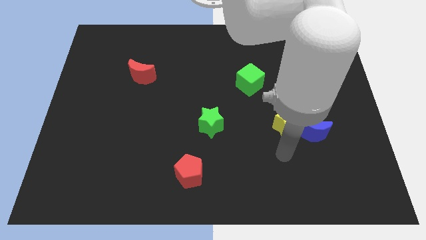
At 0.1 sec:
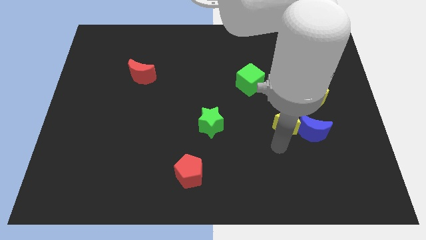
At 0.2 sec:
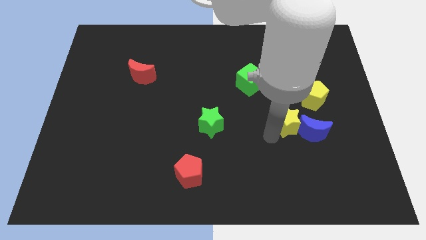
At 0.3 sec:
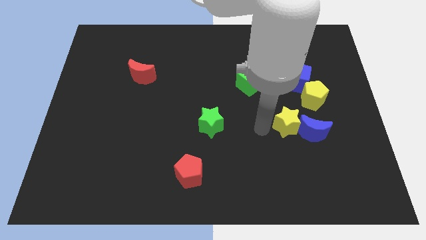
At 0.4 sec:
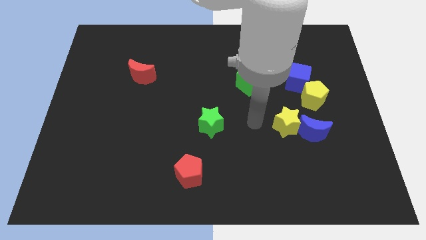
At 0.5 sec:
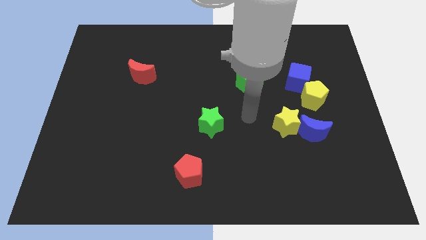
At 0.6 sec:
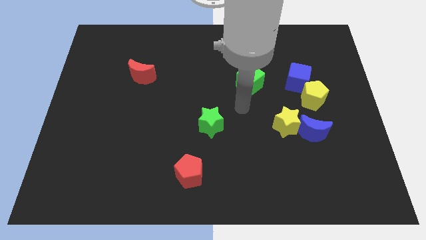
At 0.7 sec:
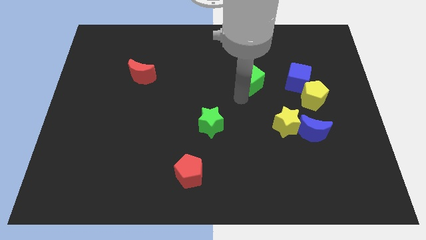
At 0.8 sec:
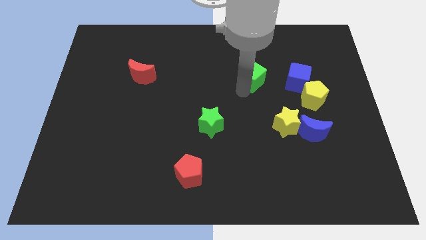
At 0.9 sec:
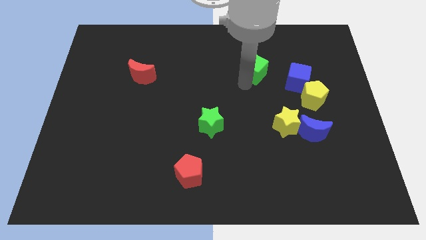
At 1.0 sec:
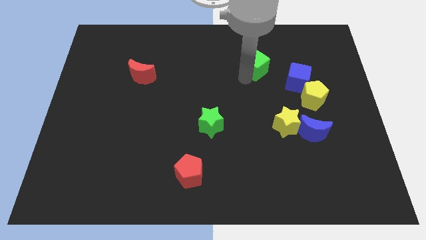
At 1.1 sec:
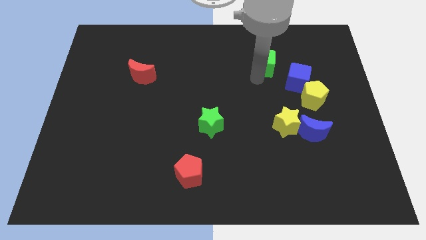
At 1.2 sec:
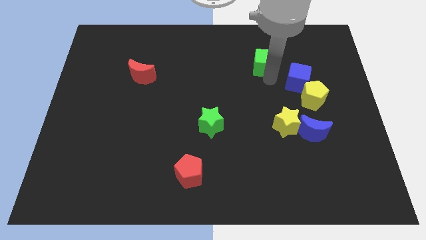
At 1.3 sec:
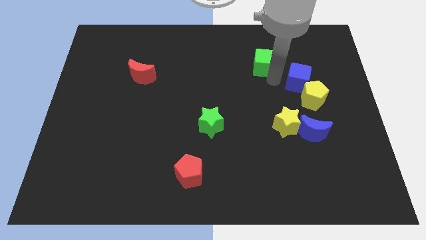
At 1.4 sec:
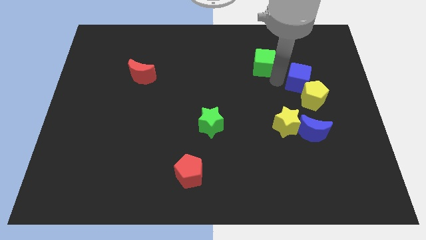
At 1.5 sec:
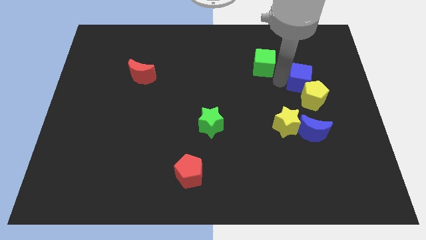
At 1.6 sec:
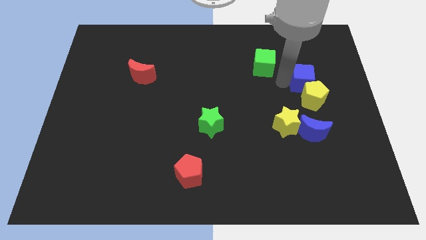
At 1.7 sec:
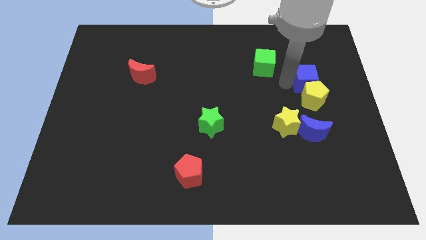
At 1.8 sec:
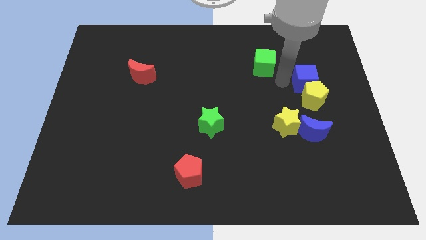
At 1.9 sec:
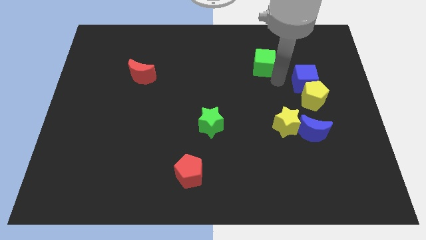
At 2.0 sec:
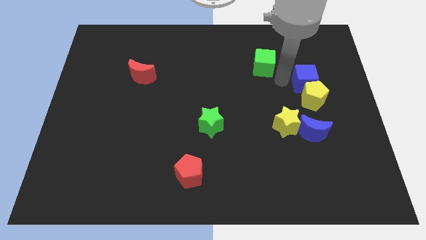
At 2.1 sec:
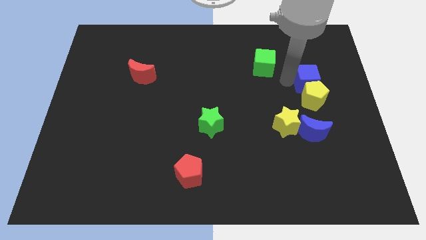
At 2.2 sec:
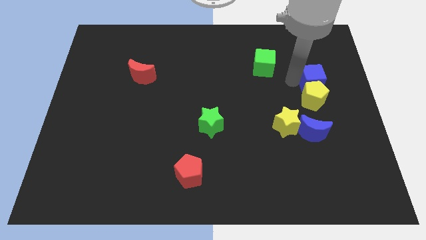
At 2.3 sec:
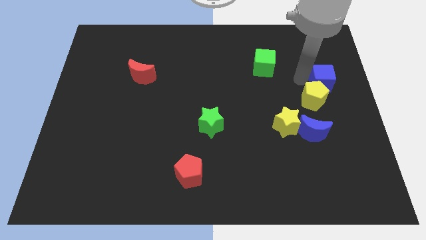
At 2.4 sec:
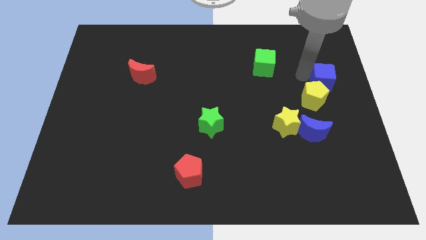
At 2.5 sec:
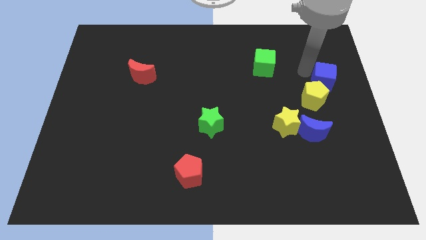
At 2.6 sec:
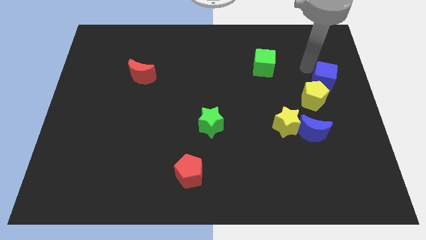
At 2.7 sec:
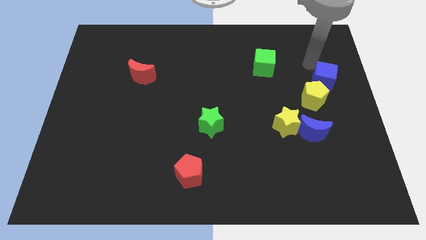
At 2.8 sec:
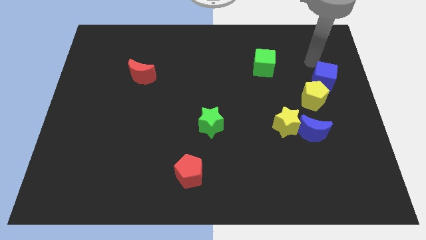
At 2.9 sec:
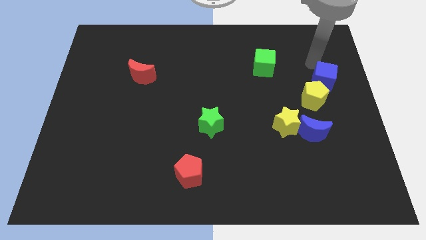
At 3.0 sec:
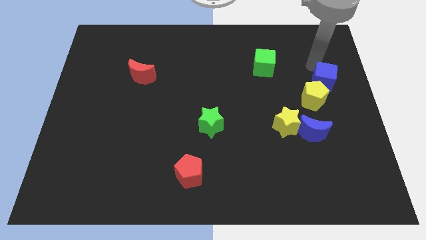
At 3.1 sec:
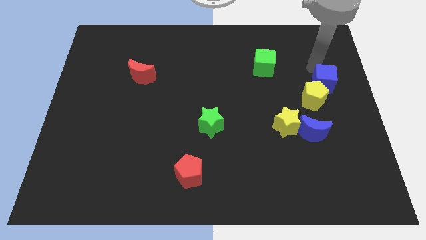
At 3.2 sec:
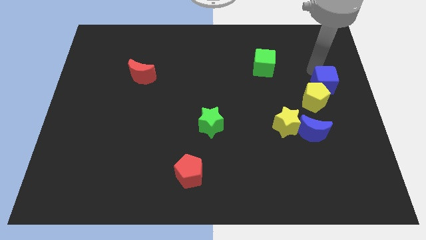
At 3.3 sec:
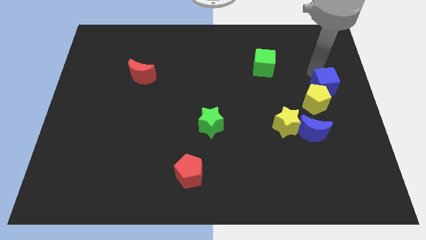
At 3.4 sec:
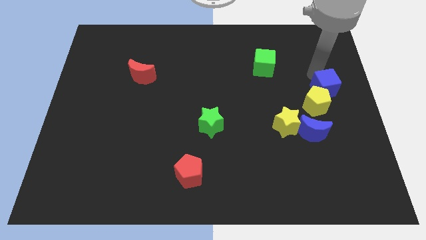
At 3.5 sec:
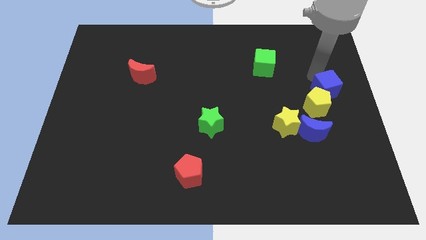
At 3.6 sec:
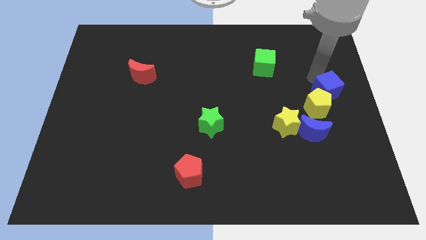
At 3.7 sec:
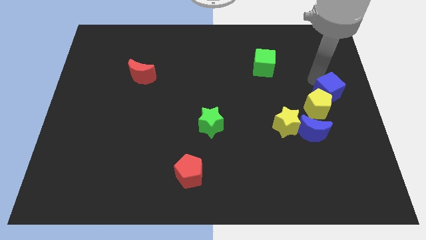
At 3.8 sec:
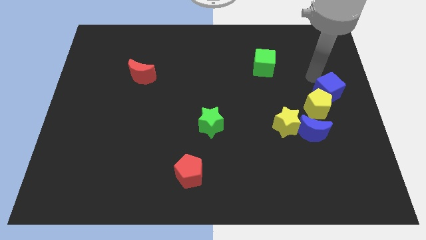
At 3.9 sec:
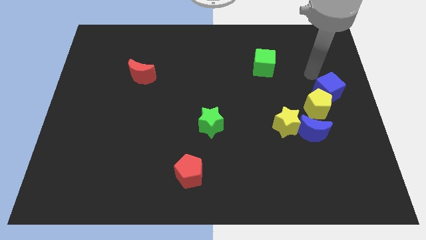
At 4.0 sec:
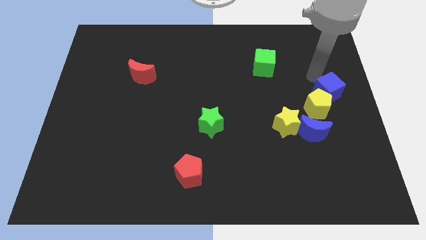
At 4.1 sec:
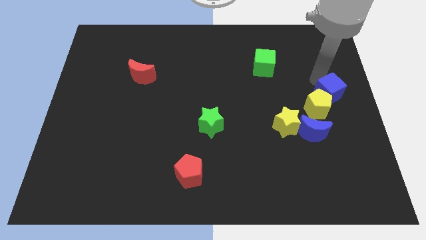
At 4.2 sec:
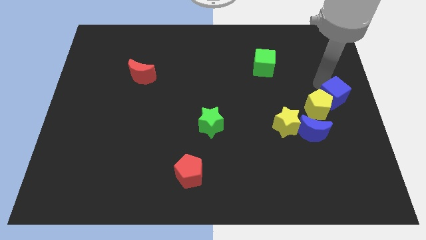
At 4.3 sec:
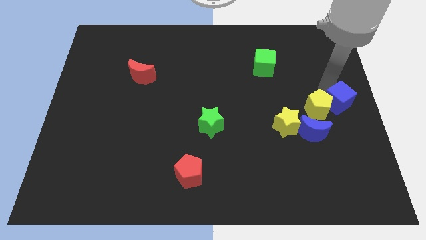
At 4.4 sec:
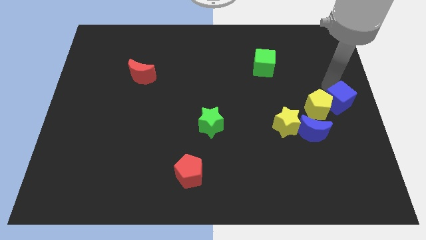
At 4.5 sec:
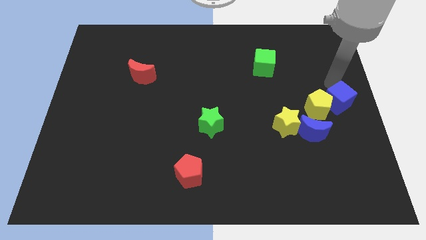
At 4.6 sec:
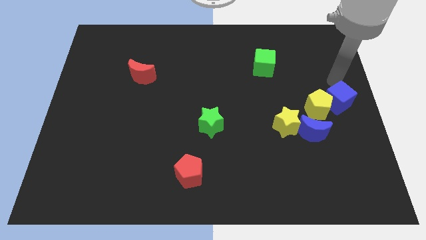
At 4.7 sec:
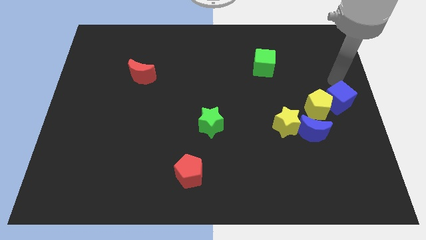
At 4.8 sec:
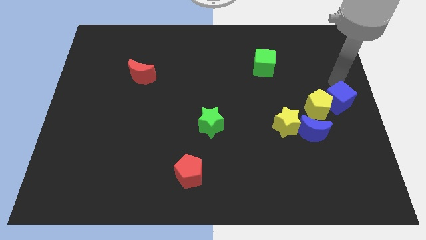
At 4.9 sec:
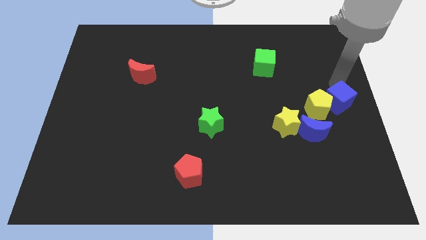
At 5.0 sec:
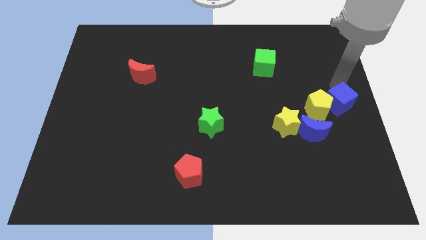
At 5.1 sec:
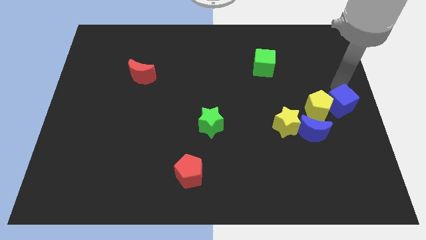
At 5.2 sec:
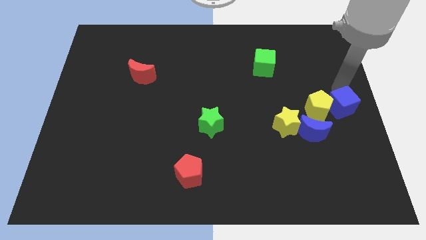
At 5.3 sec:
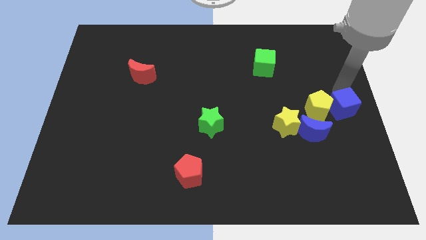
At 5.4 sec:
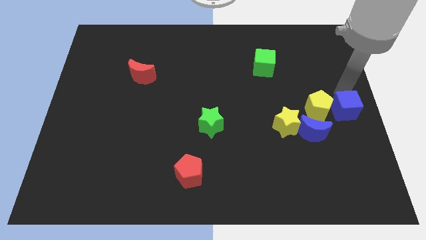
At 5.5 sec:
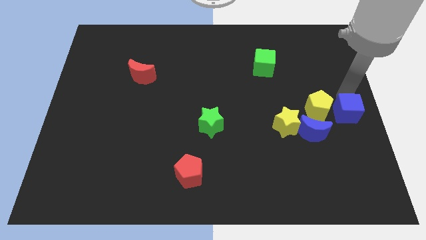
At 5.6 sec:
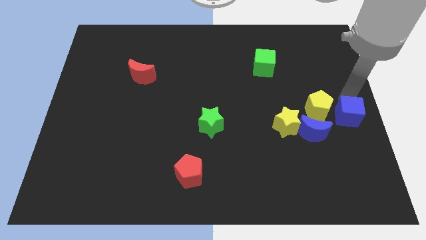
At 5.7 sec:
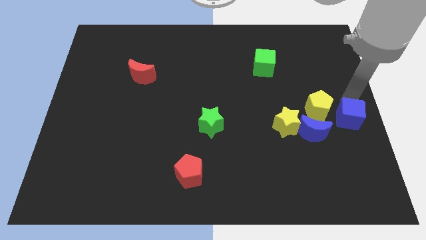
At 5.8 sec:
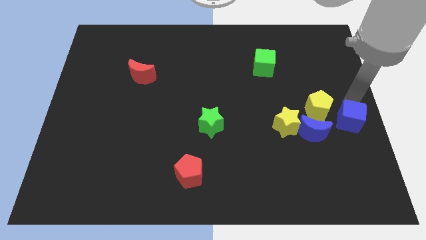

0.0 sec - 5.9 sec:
push the blue cube down a little bit

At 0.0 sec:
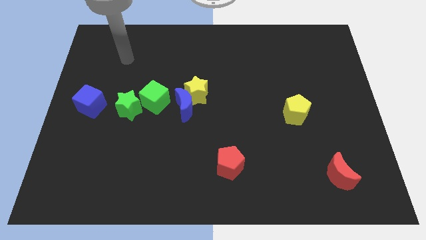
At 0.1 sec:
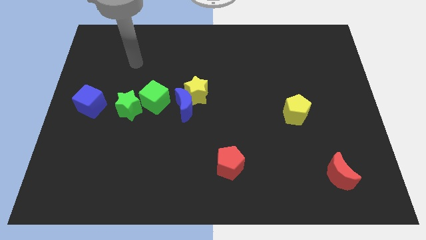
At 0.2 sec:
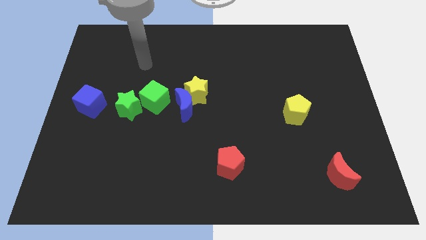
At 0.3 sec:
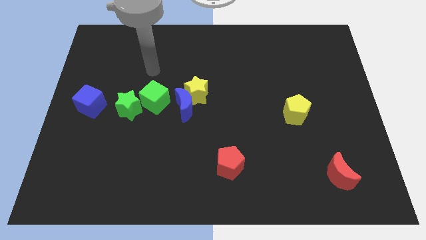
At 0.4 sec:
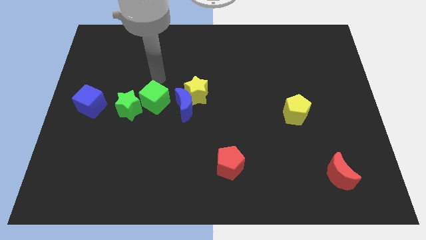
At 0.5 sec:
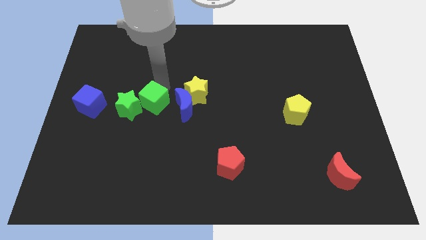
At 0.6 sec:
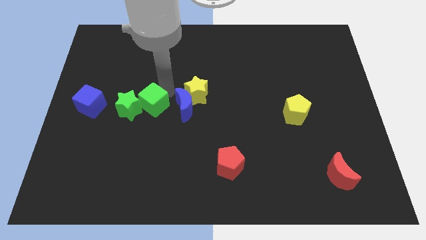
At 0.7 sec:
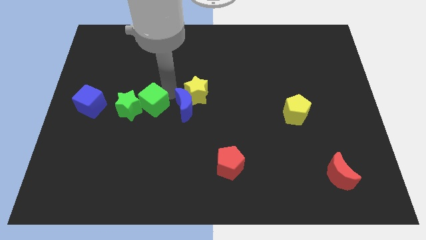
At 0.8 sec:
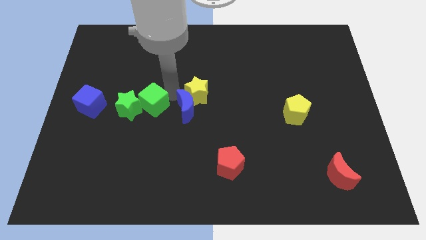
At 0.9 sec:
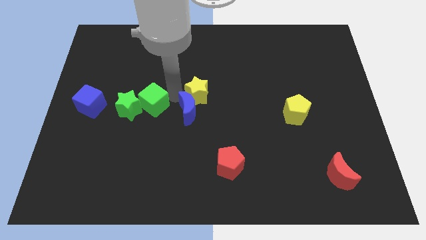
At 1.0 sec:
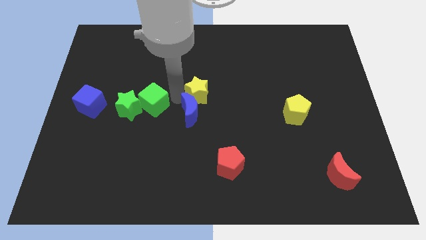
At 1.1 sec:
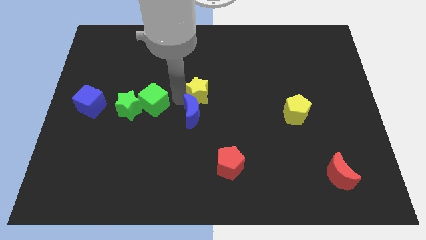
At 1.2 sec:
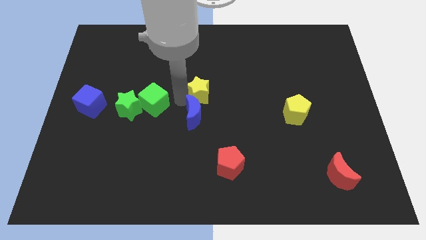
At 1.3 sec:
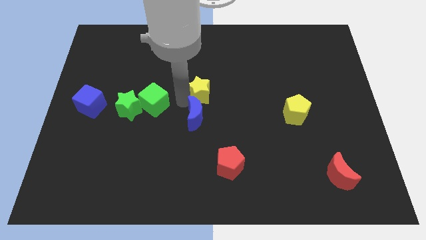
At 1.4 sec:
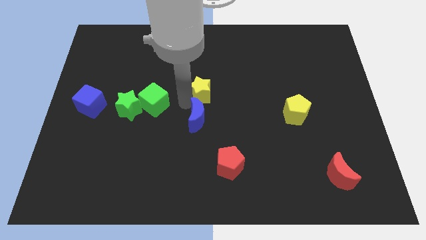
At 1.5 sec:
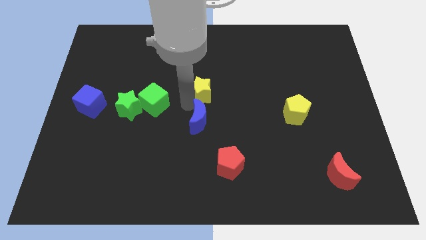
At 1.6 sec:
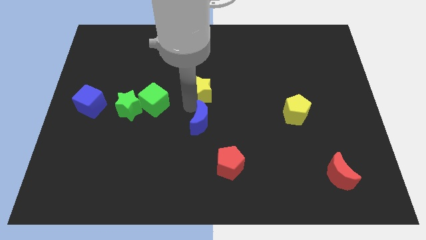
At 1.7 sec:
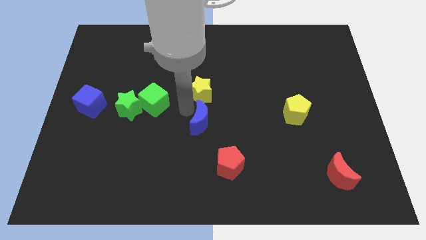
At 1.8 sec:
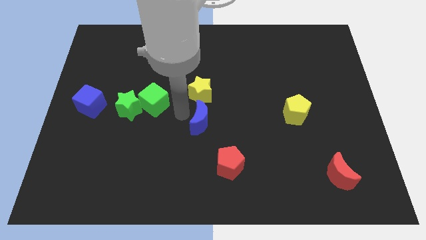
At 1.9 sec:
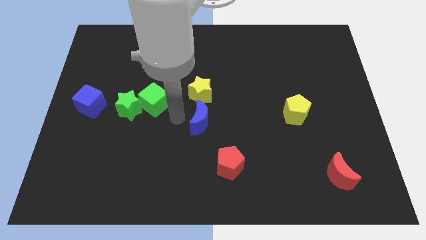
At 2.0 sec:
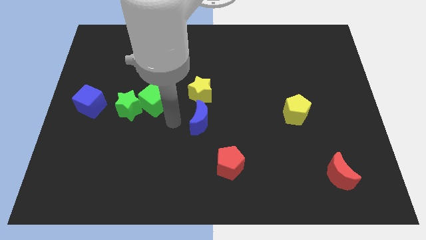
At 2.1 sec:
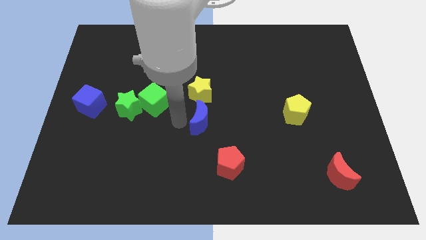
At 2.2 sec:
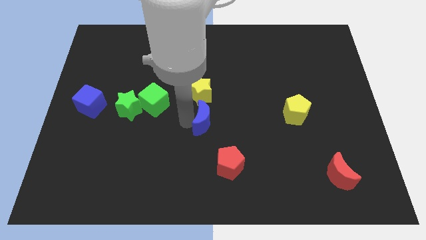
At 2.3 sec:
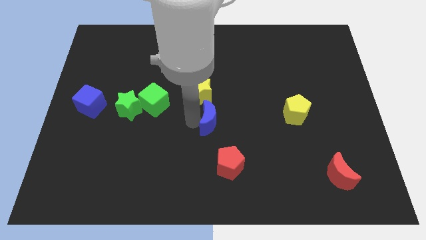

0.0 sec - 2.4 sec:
slightly move the blue moon down and right

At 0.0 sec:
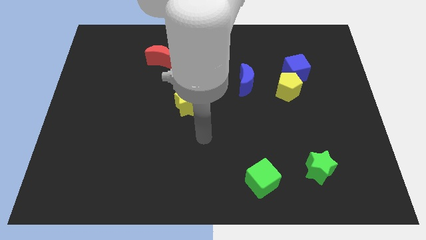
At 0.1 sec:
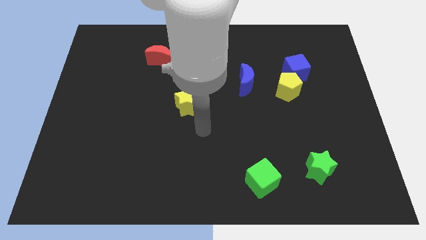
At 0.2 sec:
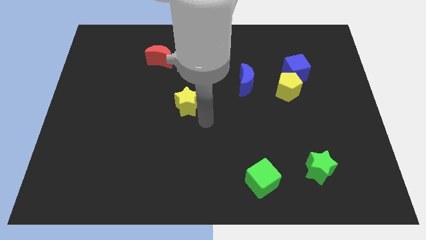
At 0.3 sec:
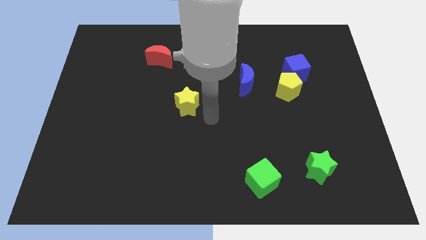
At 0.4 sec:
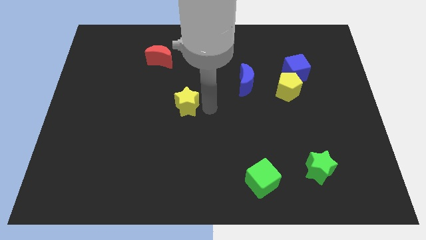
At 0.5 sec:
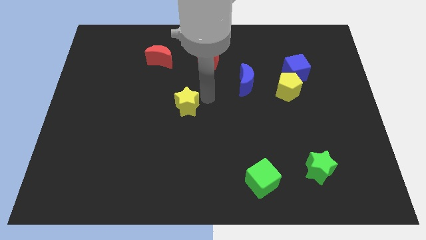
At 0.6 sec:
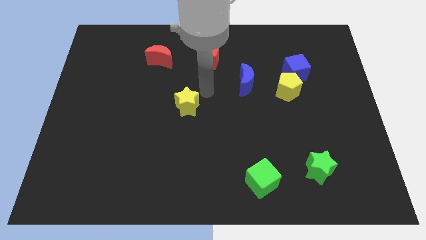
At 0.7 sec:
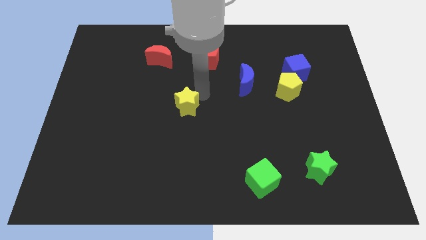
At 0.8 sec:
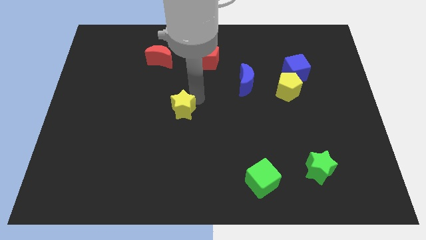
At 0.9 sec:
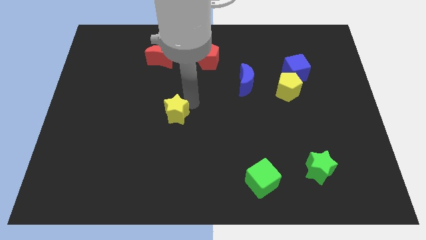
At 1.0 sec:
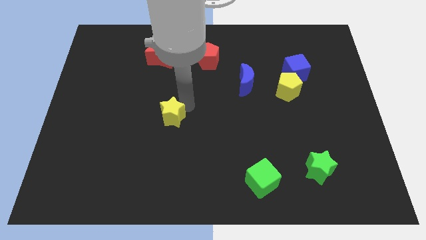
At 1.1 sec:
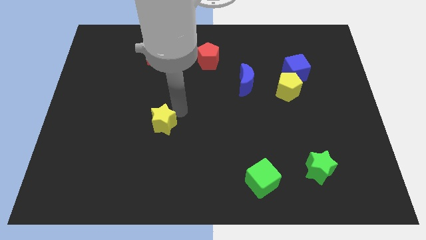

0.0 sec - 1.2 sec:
slightly push the yellow star downwards and to the left diagonally
